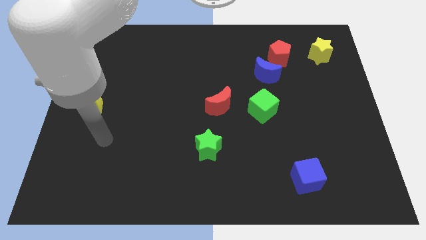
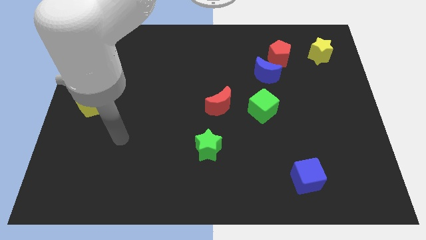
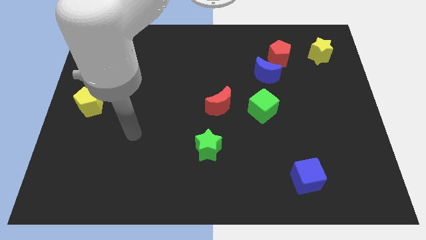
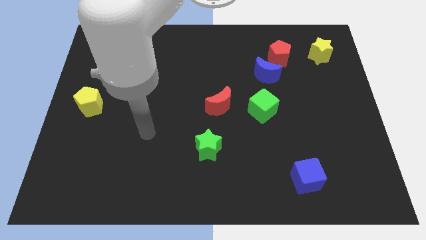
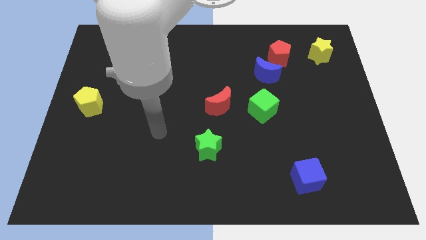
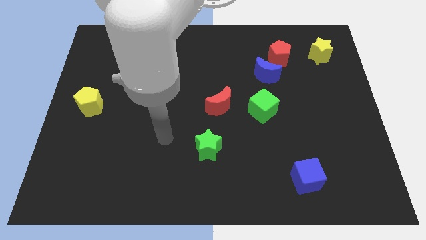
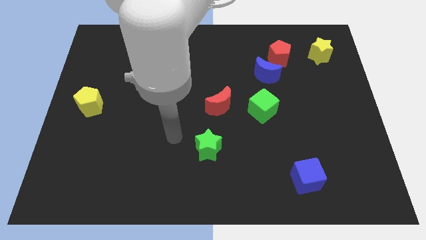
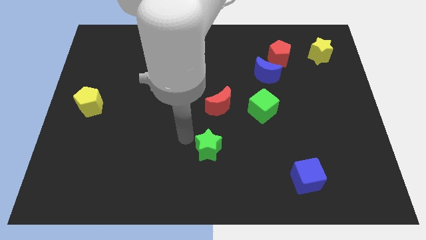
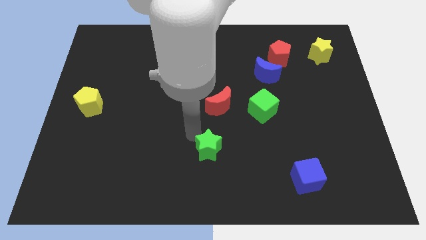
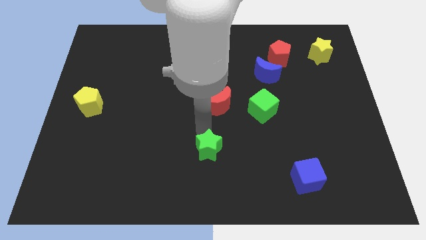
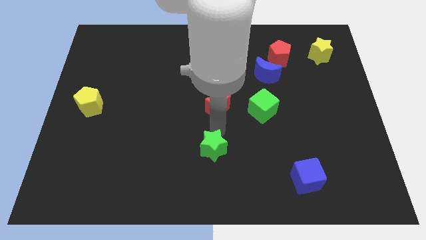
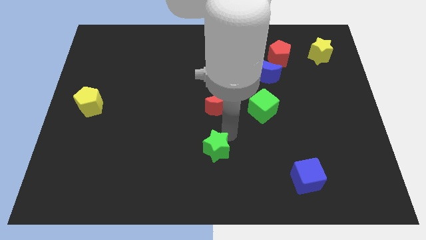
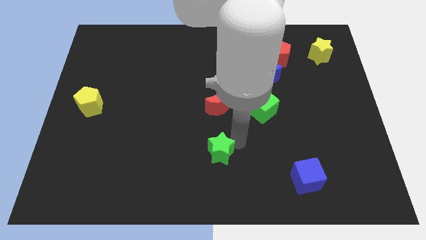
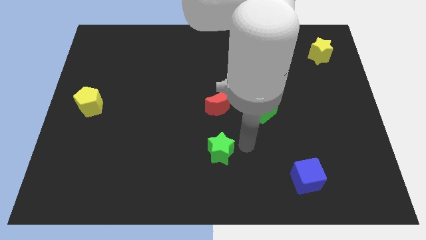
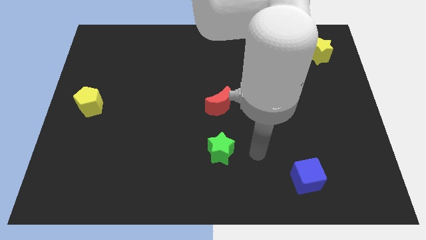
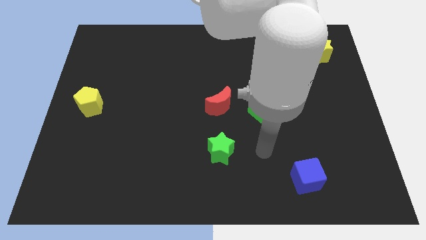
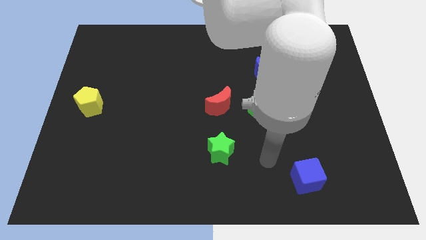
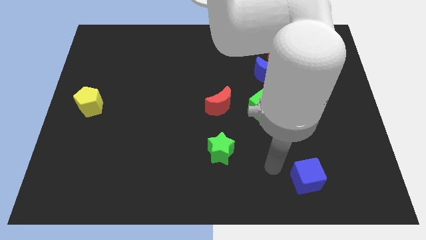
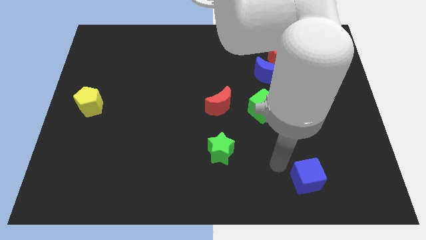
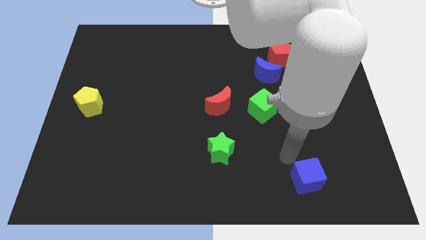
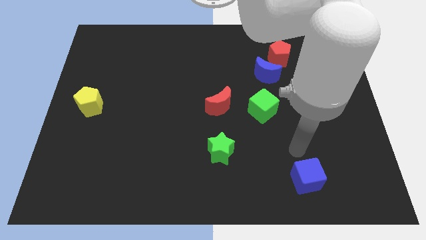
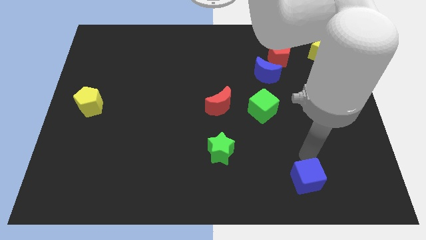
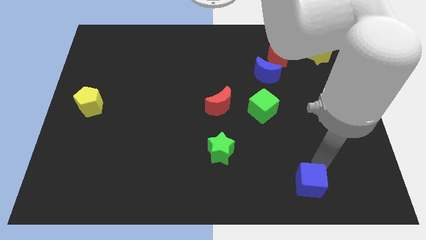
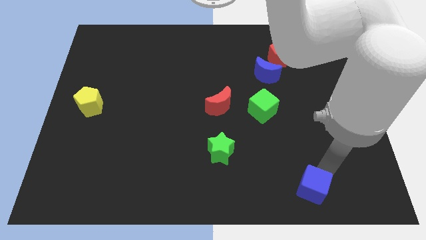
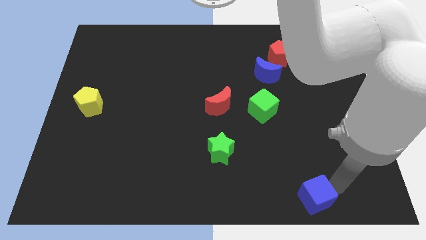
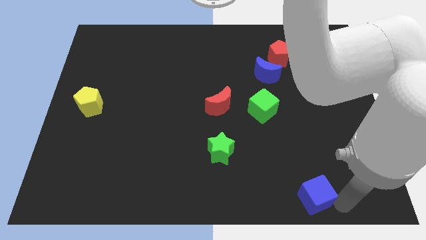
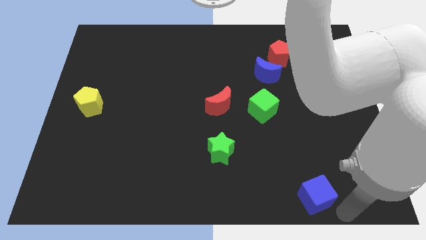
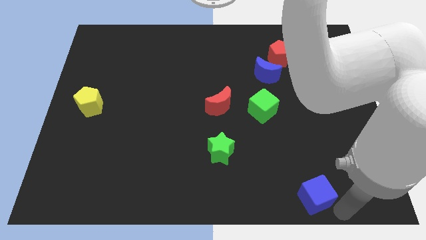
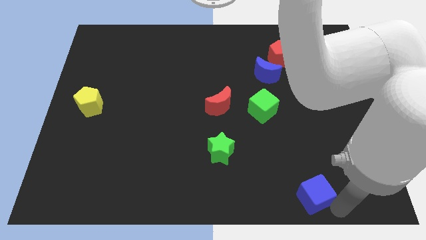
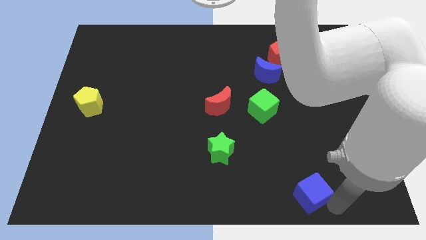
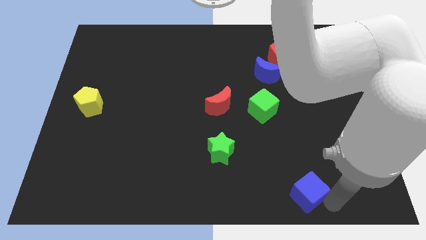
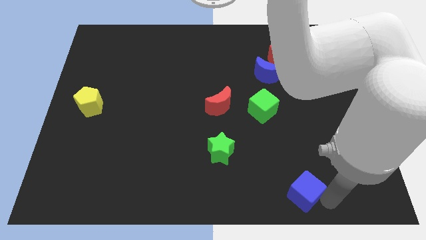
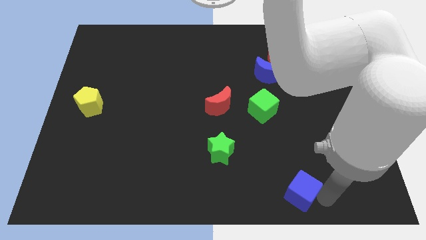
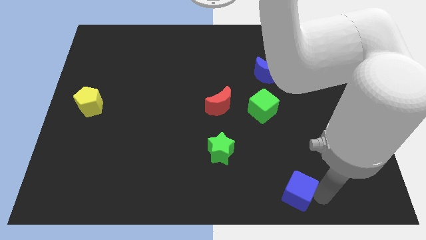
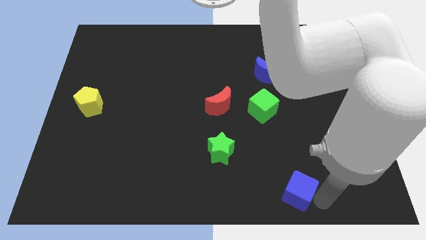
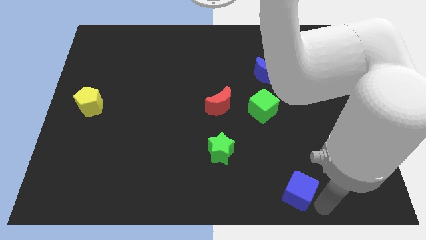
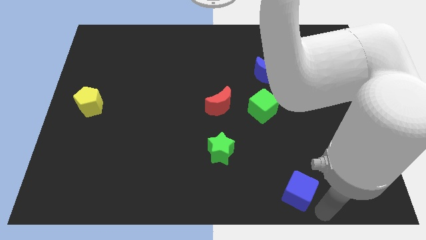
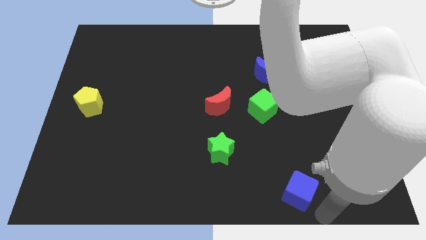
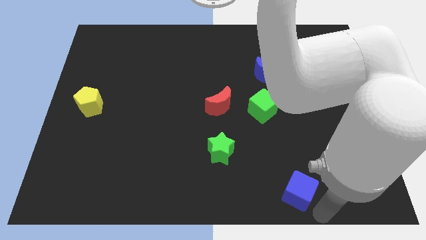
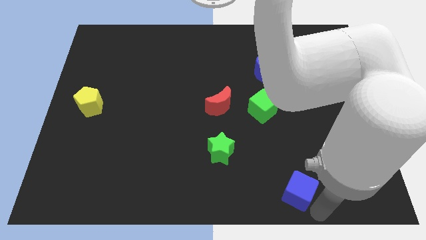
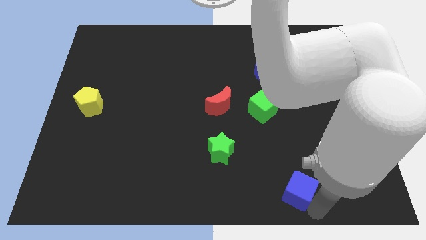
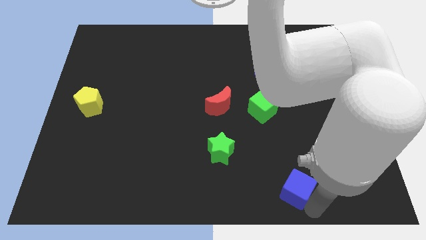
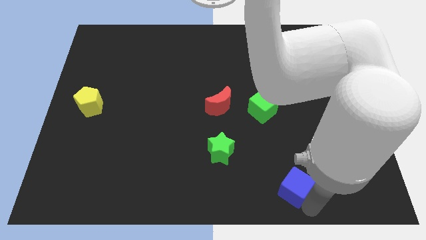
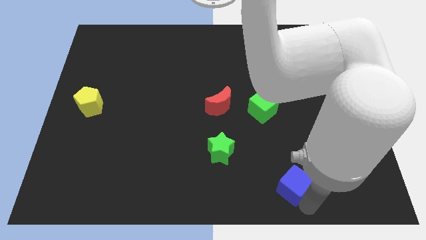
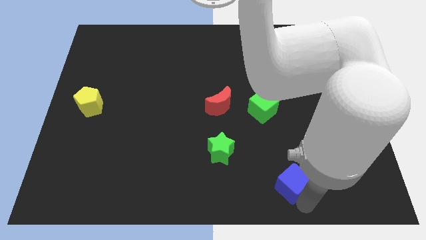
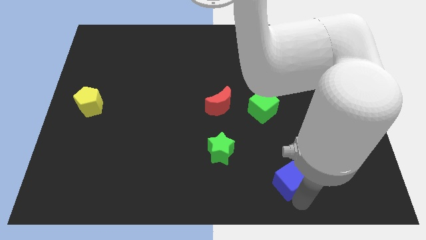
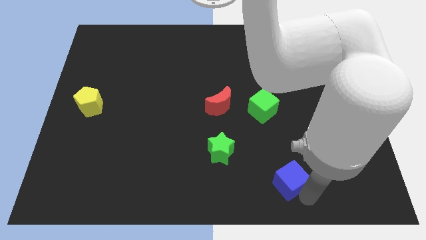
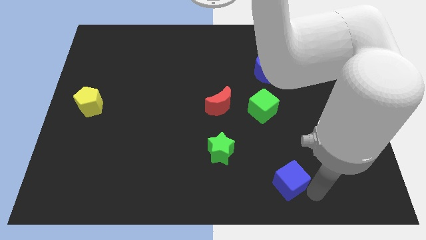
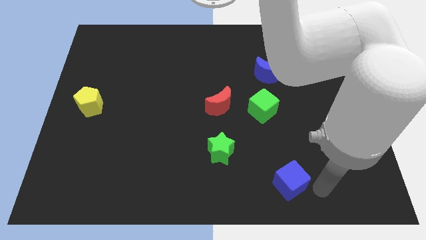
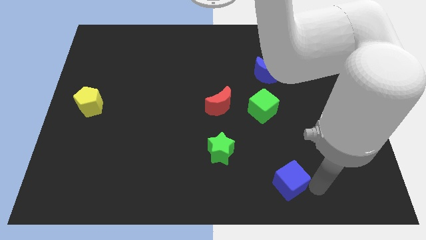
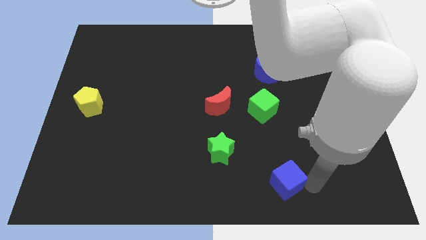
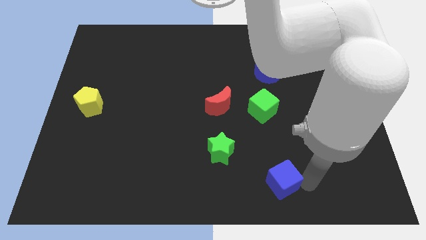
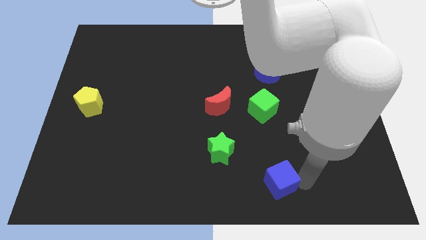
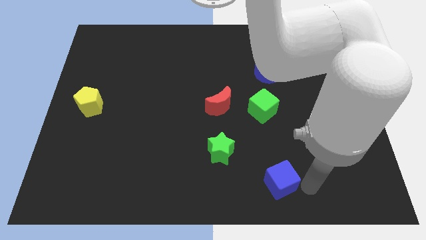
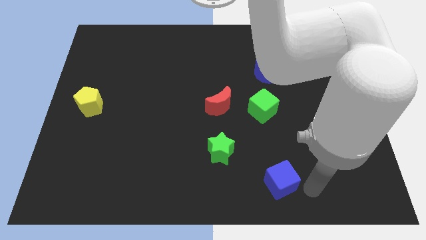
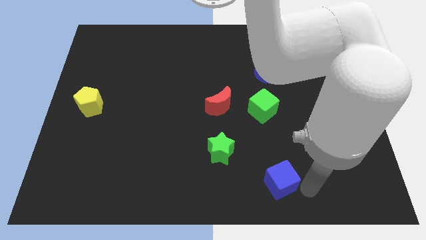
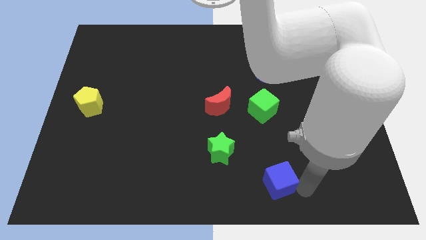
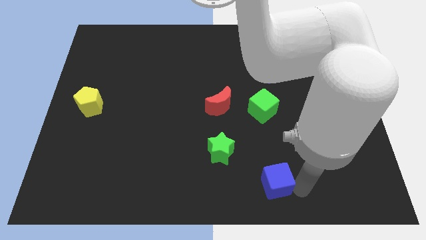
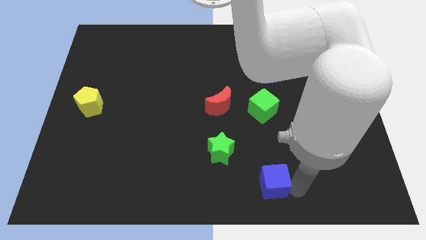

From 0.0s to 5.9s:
push the blue cube a little to the left

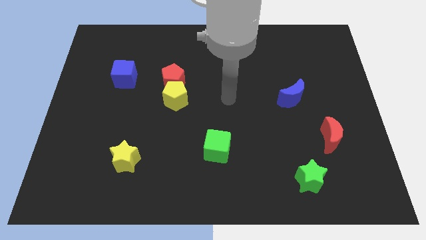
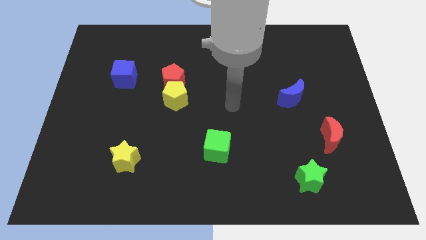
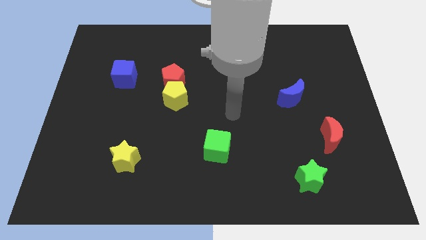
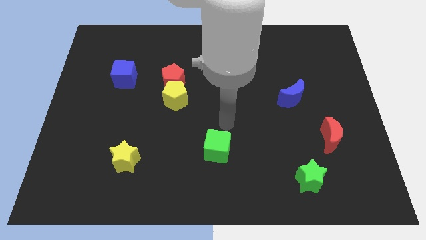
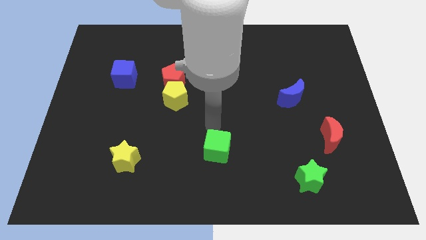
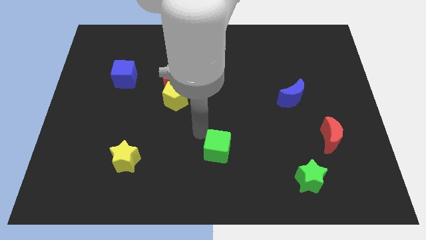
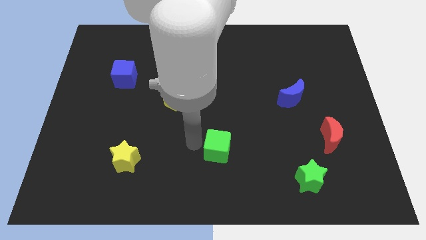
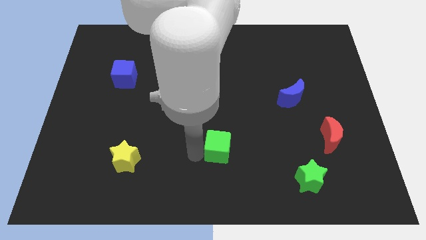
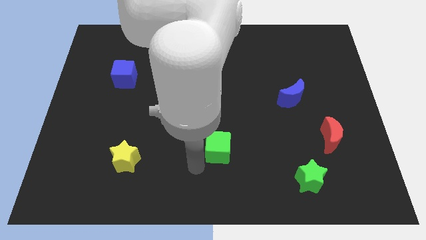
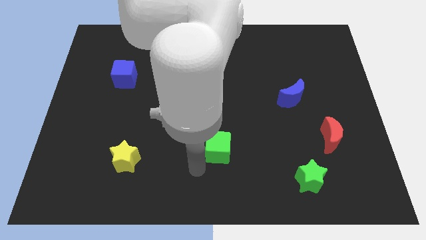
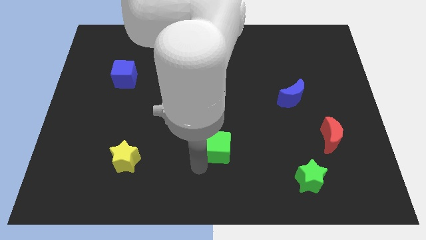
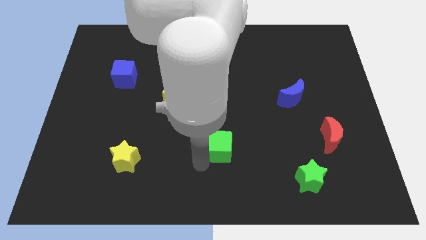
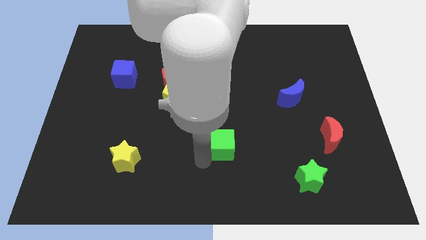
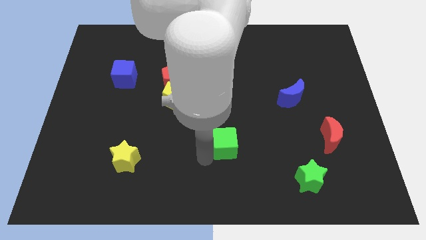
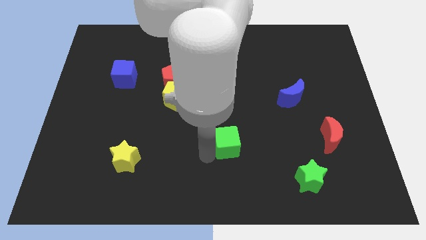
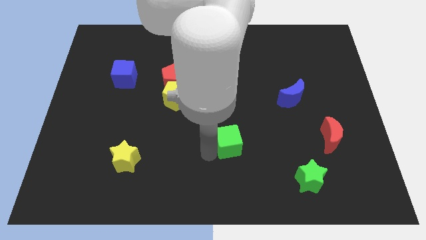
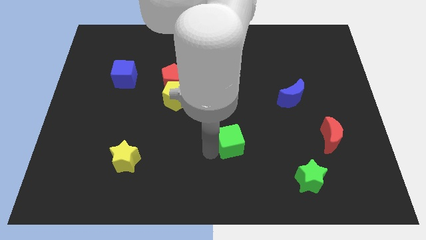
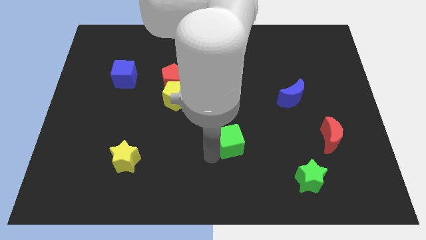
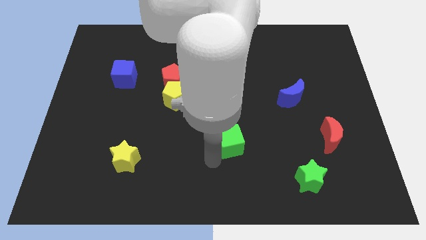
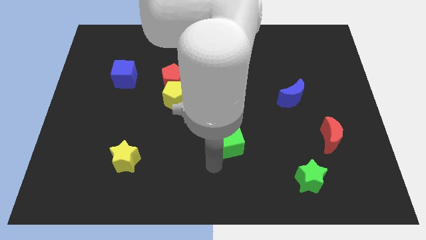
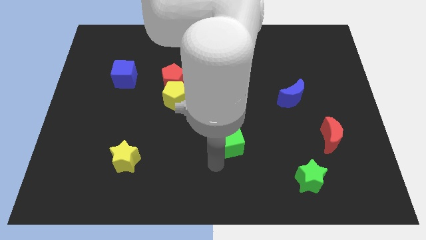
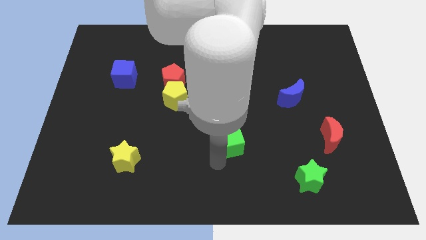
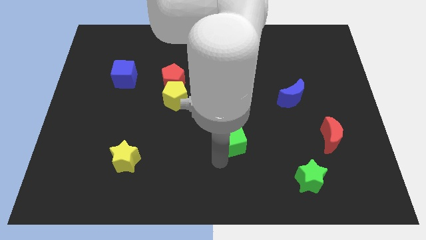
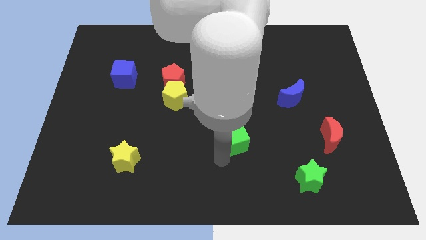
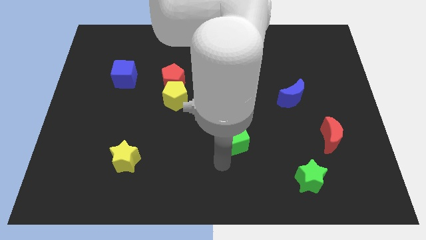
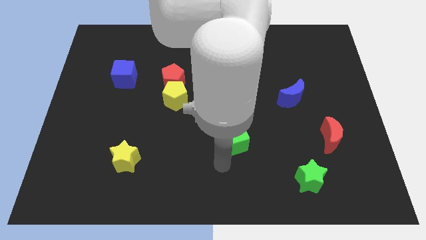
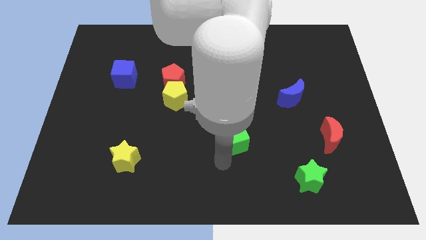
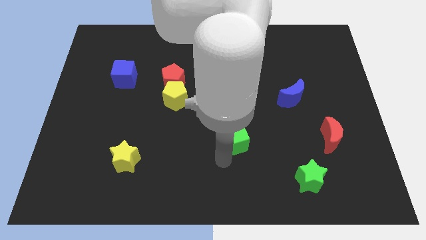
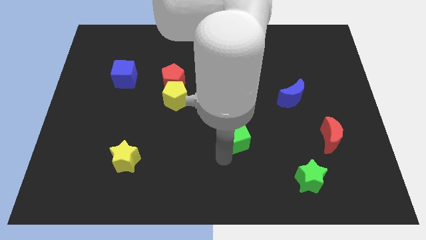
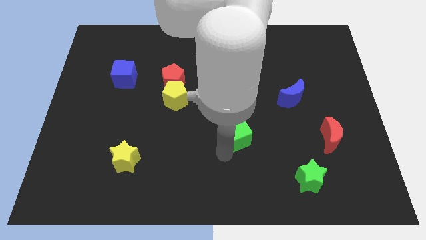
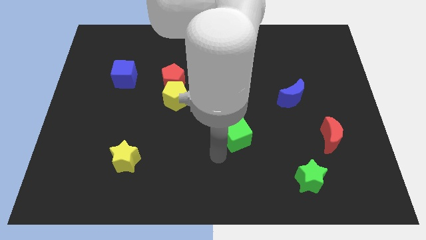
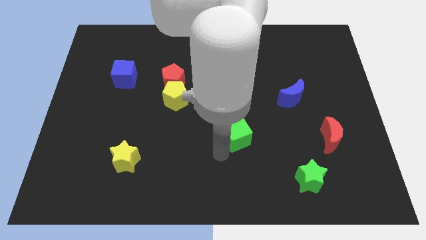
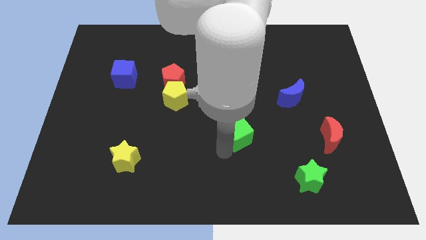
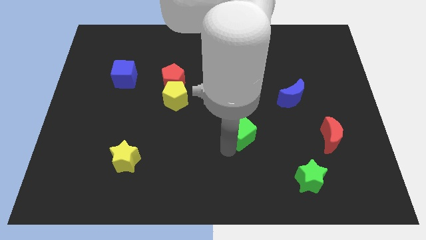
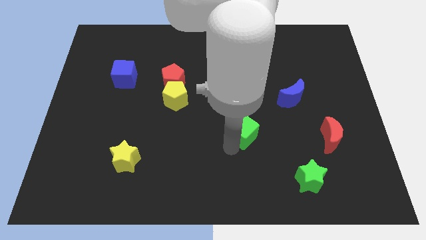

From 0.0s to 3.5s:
slightly slide the green cube up and right
